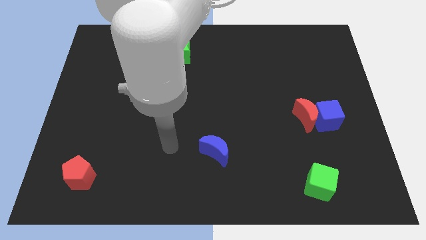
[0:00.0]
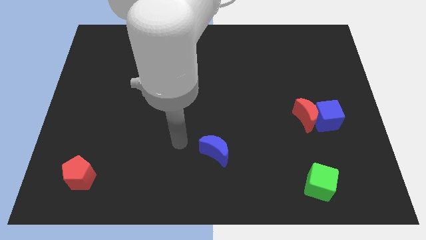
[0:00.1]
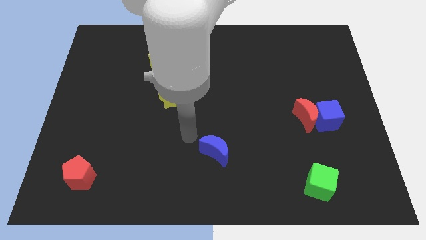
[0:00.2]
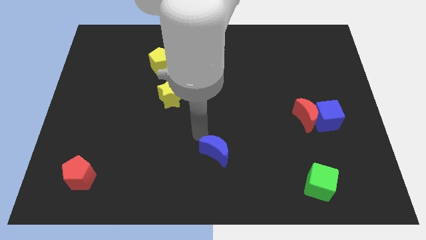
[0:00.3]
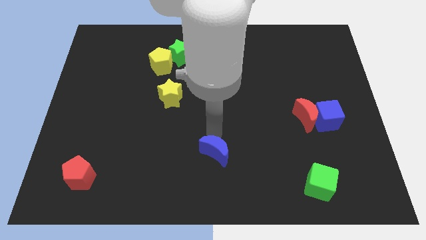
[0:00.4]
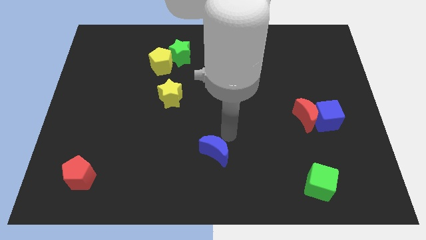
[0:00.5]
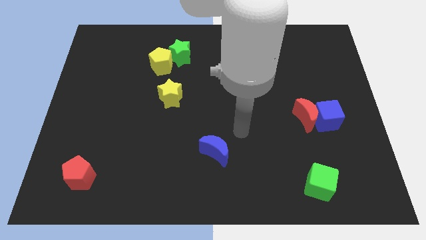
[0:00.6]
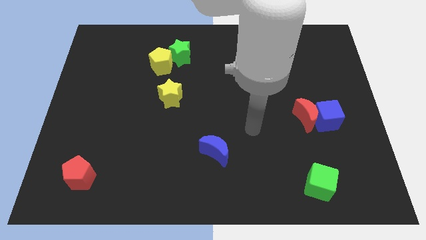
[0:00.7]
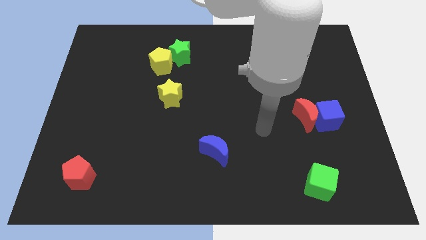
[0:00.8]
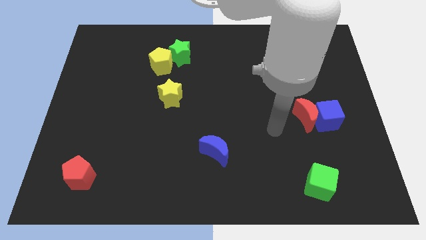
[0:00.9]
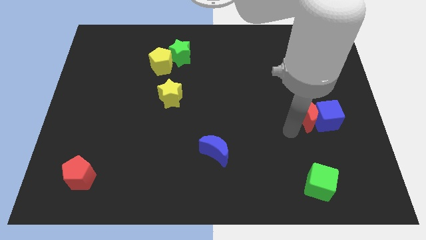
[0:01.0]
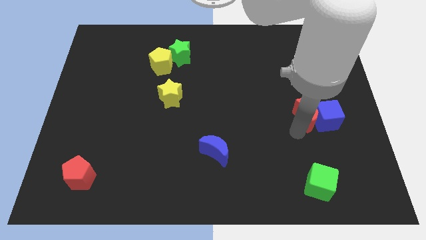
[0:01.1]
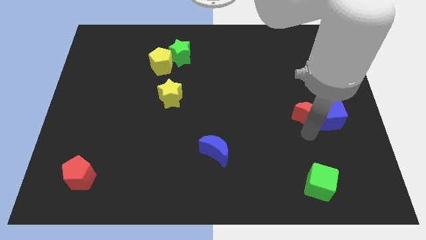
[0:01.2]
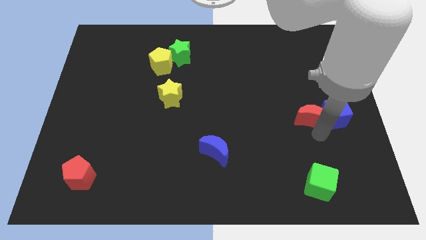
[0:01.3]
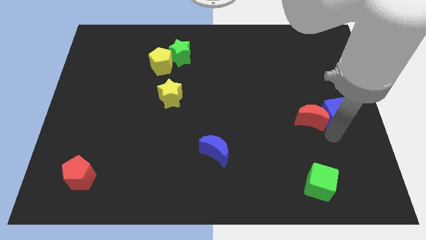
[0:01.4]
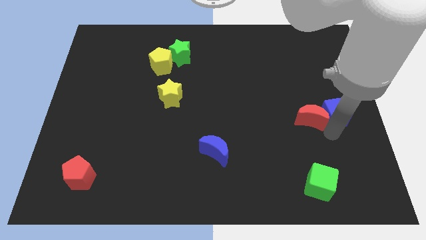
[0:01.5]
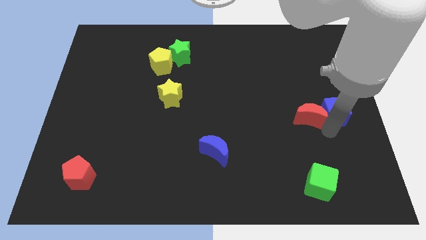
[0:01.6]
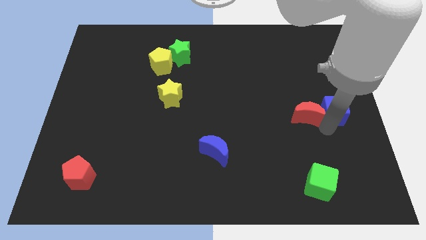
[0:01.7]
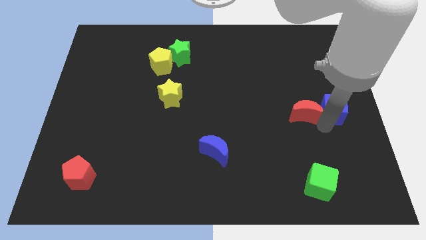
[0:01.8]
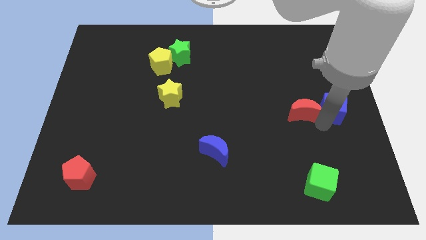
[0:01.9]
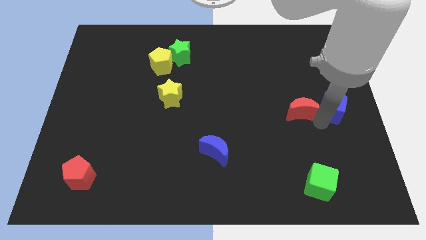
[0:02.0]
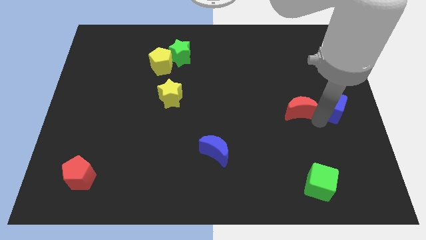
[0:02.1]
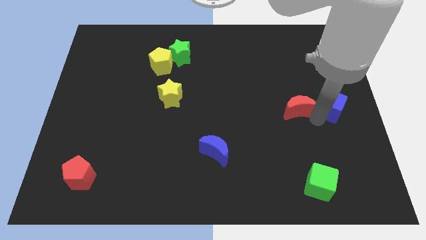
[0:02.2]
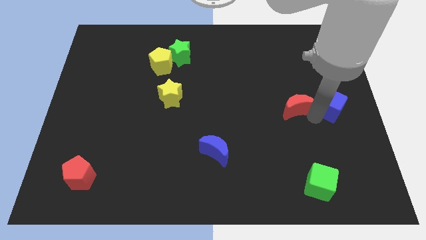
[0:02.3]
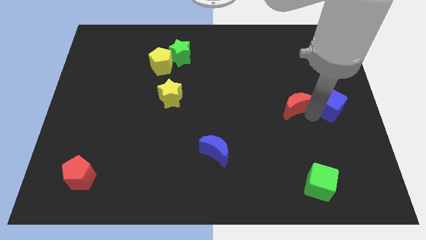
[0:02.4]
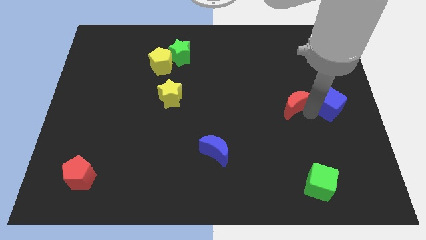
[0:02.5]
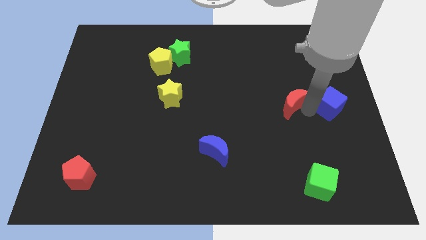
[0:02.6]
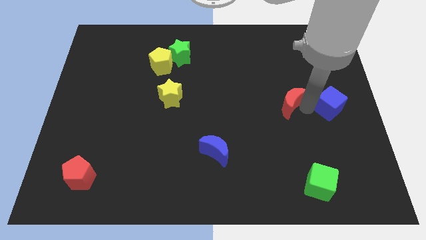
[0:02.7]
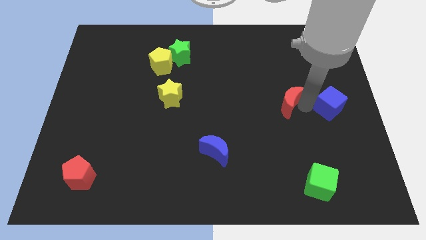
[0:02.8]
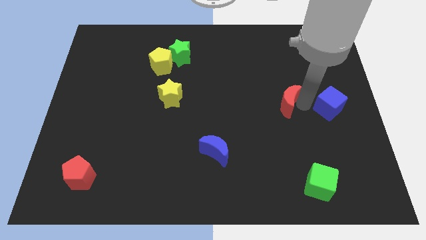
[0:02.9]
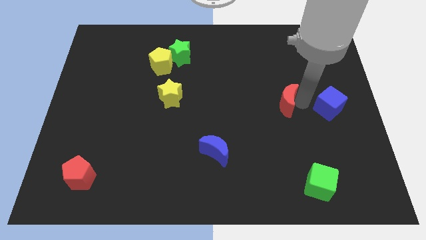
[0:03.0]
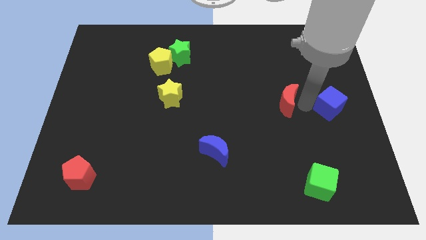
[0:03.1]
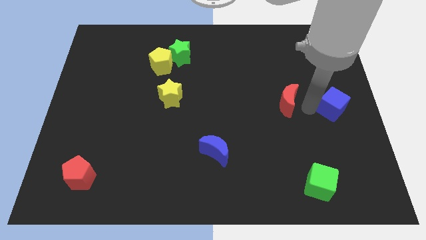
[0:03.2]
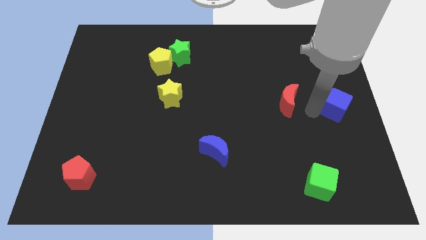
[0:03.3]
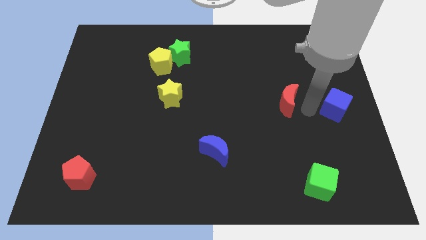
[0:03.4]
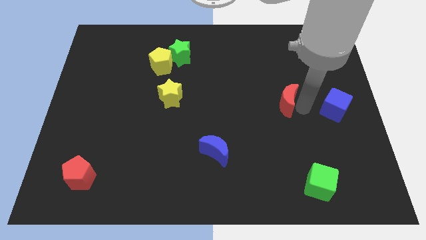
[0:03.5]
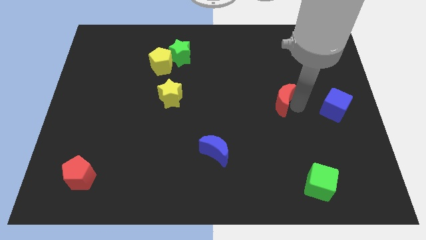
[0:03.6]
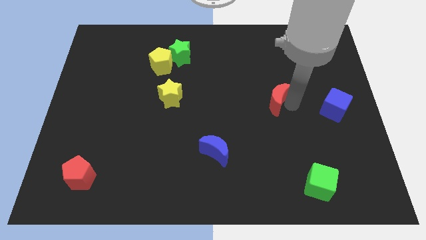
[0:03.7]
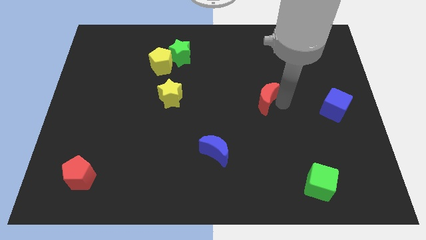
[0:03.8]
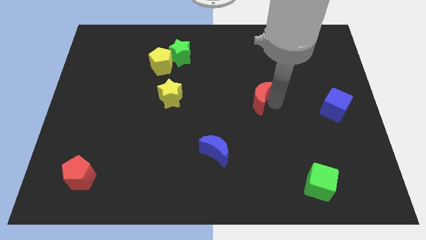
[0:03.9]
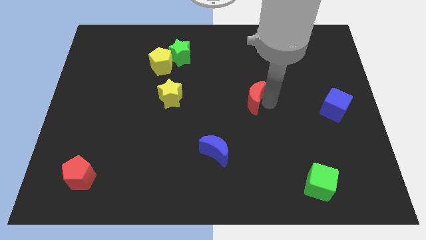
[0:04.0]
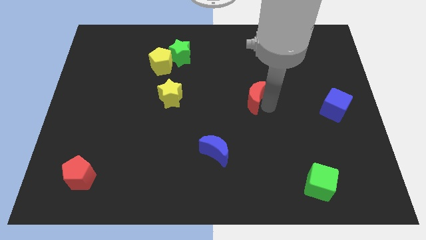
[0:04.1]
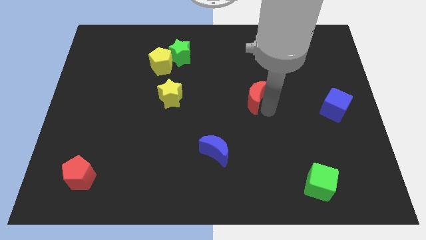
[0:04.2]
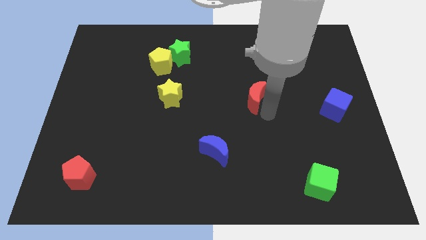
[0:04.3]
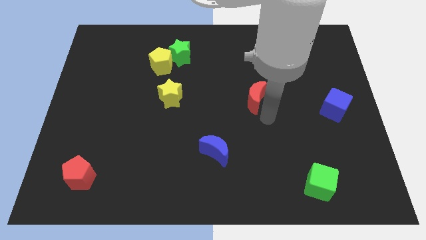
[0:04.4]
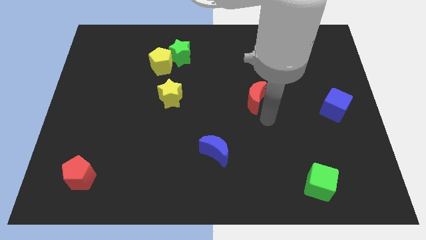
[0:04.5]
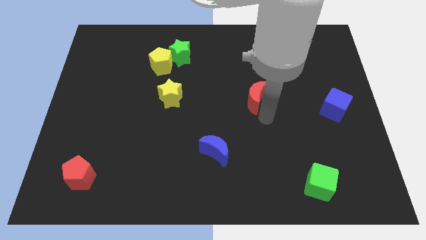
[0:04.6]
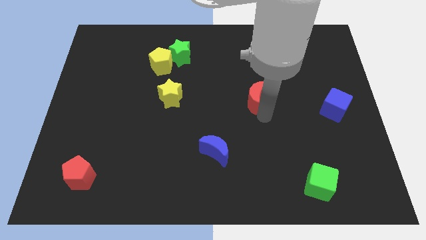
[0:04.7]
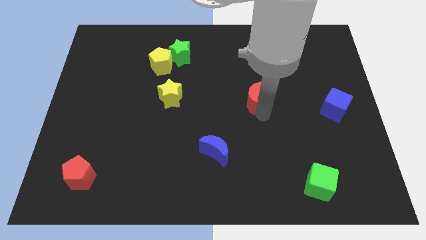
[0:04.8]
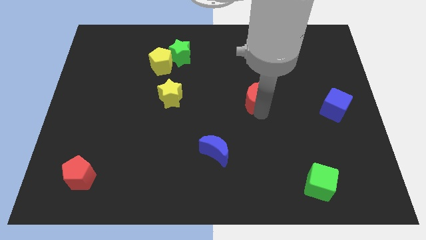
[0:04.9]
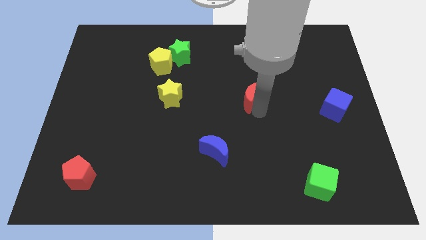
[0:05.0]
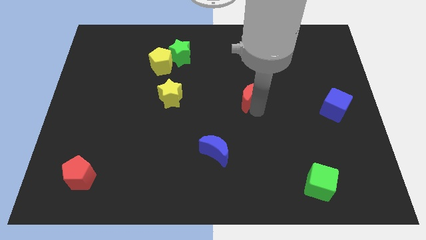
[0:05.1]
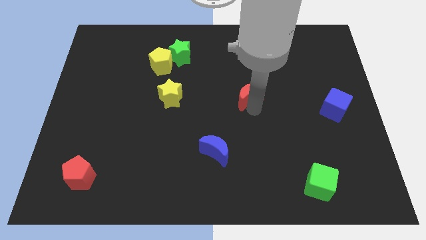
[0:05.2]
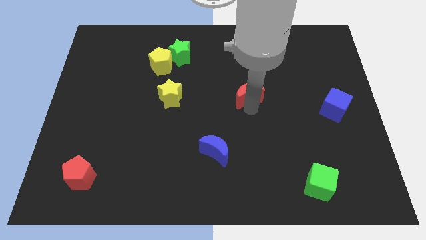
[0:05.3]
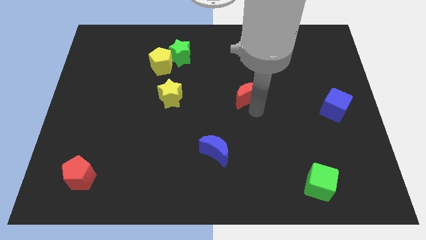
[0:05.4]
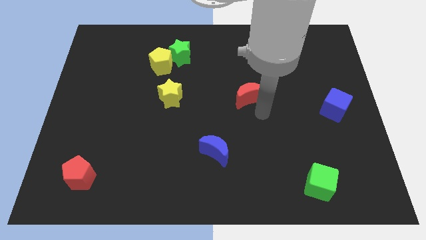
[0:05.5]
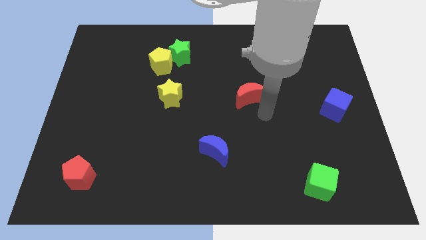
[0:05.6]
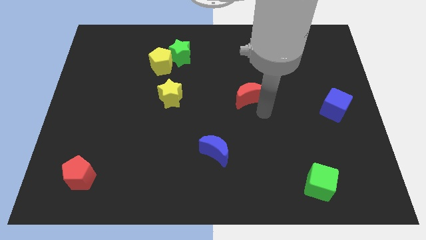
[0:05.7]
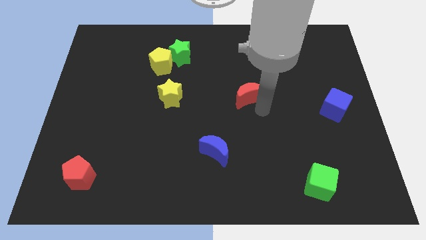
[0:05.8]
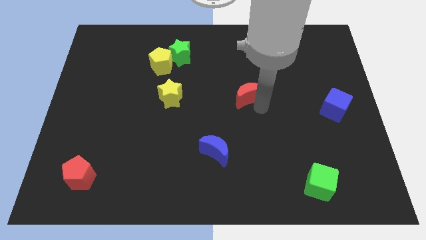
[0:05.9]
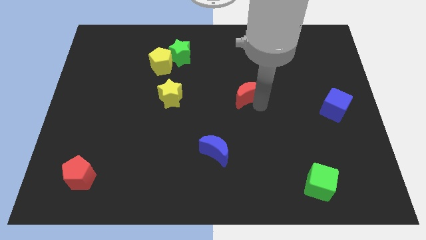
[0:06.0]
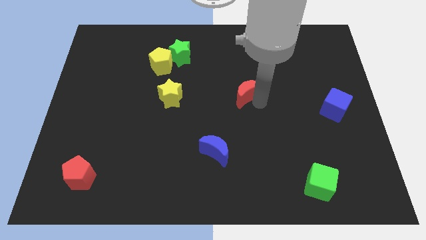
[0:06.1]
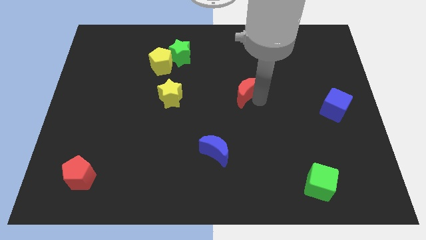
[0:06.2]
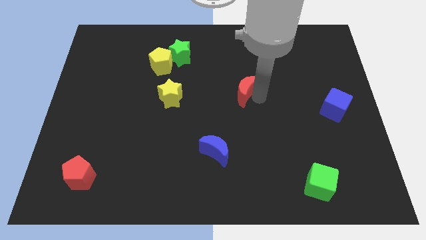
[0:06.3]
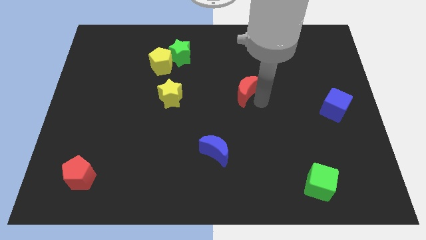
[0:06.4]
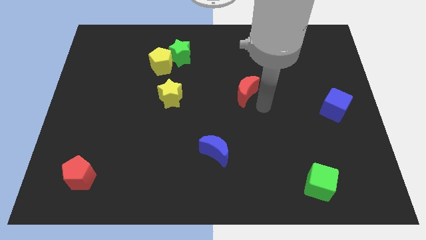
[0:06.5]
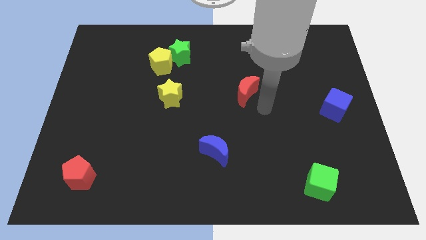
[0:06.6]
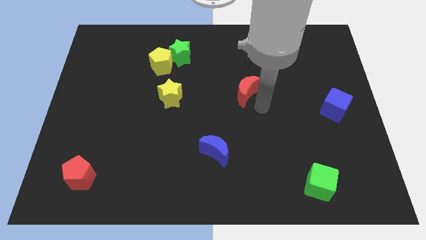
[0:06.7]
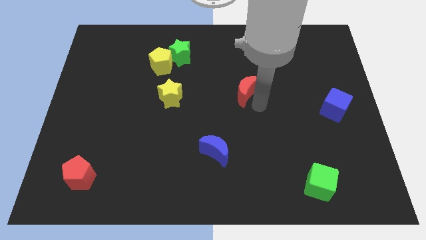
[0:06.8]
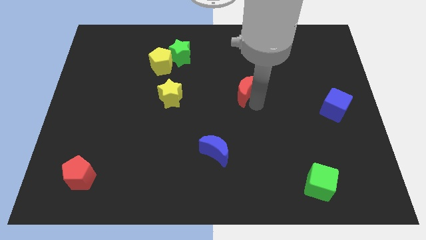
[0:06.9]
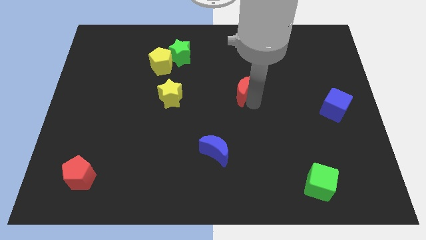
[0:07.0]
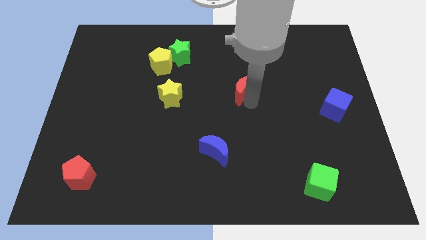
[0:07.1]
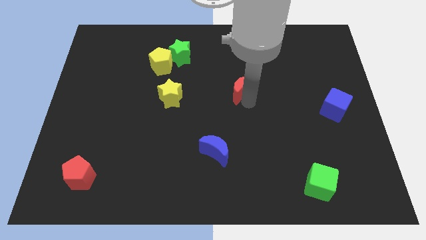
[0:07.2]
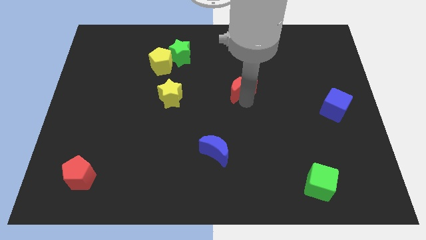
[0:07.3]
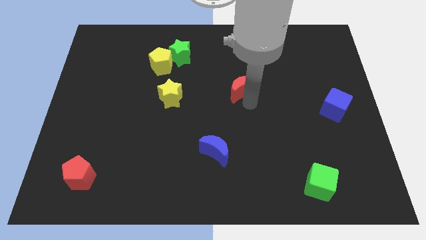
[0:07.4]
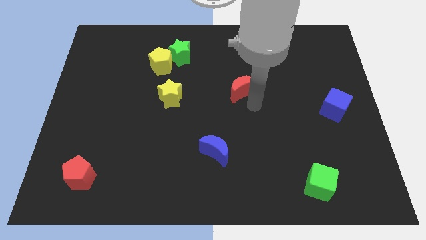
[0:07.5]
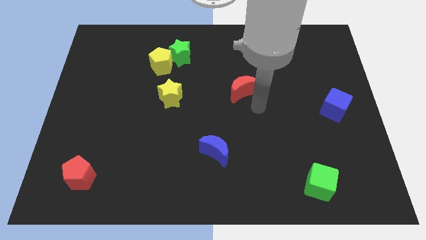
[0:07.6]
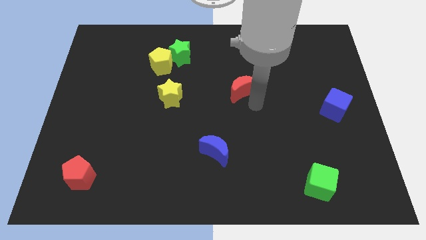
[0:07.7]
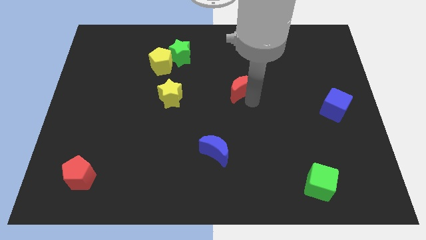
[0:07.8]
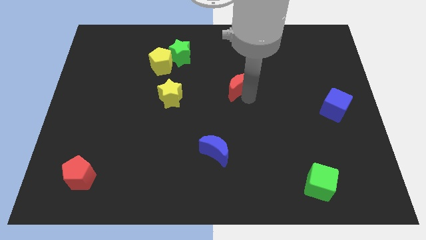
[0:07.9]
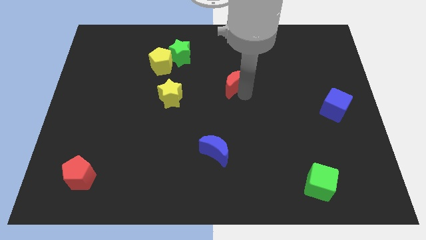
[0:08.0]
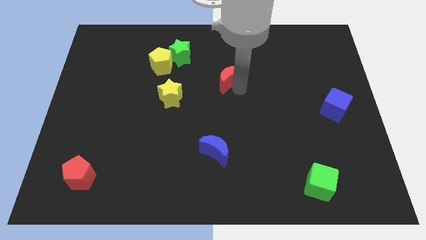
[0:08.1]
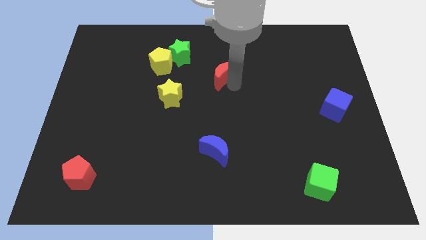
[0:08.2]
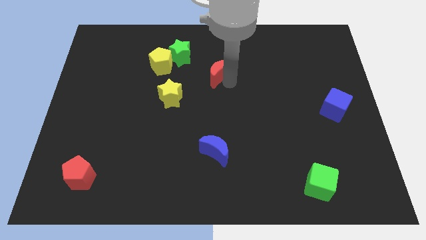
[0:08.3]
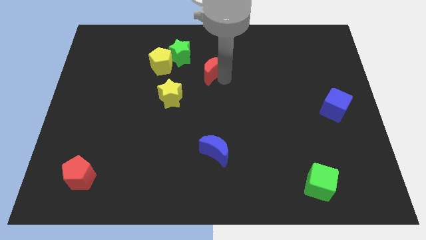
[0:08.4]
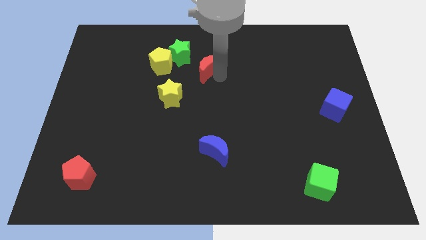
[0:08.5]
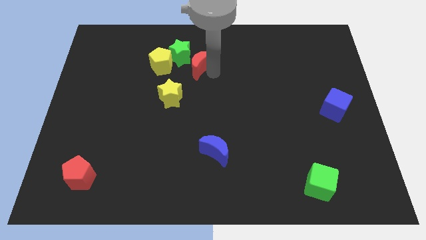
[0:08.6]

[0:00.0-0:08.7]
put the red moon towards the green star
